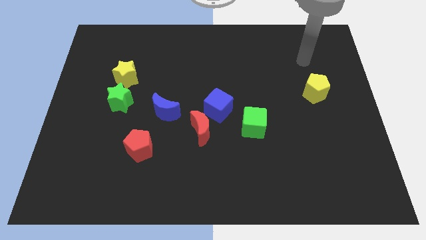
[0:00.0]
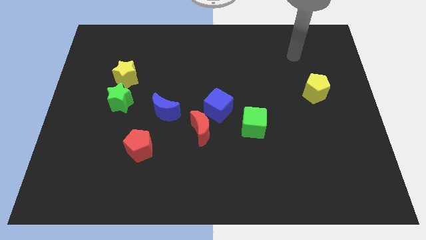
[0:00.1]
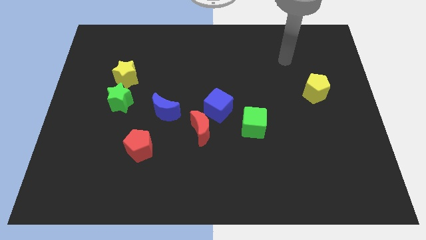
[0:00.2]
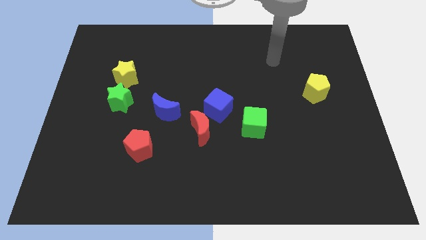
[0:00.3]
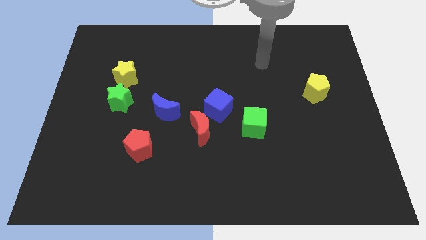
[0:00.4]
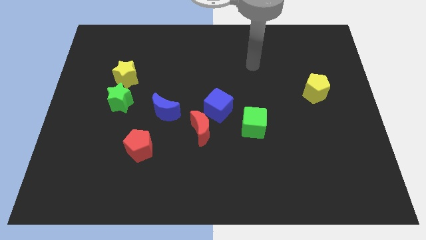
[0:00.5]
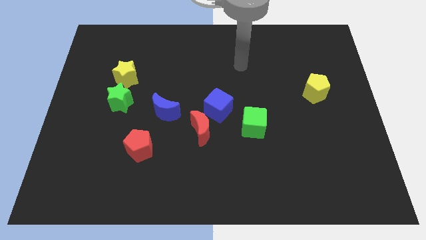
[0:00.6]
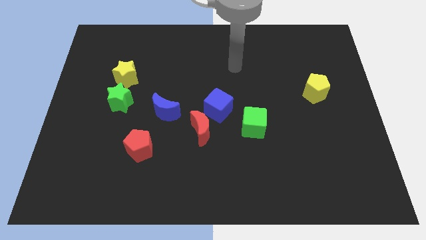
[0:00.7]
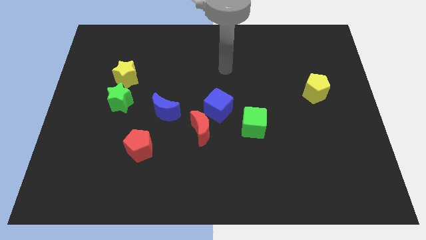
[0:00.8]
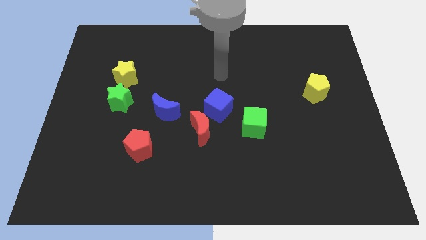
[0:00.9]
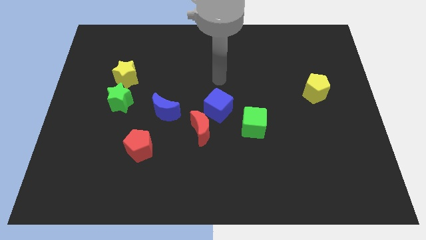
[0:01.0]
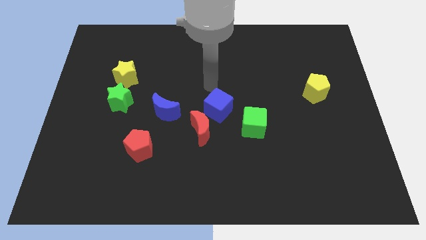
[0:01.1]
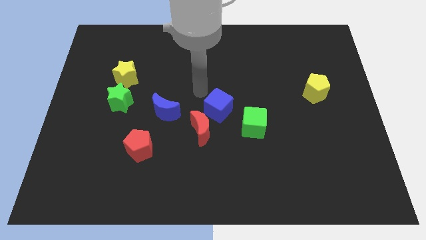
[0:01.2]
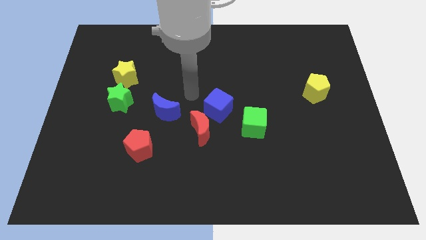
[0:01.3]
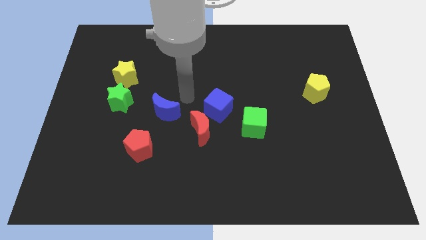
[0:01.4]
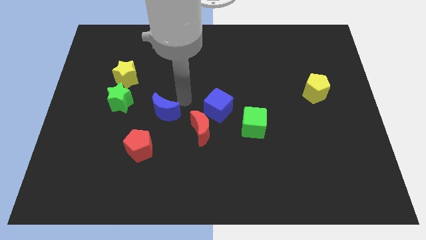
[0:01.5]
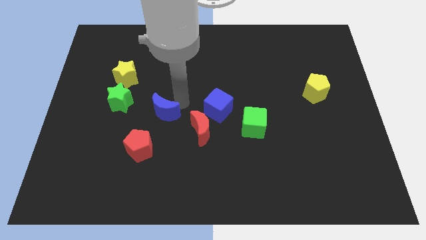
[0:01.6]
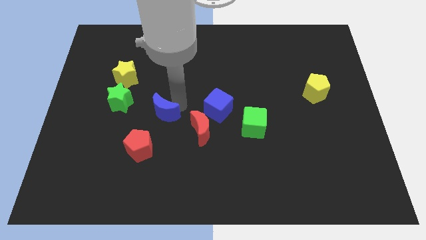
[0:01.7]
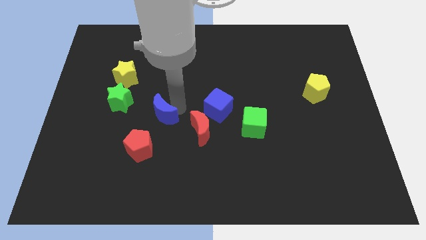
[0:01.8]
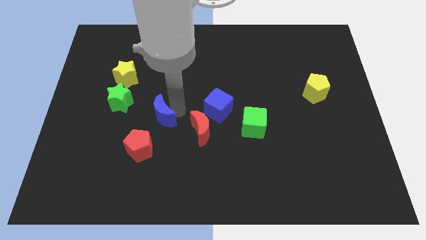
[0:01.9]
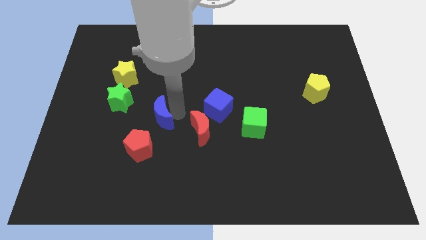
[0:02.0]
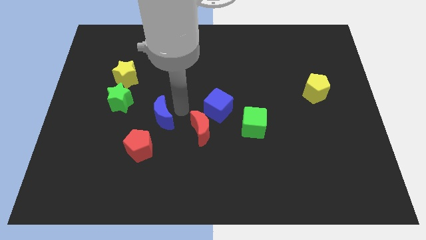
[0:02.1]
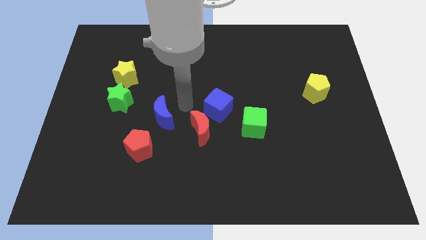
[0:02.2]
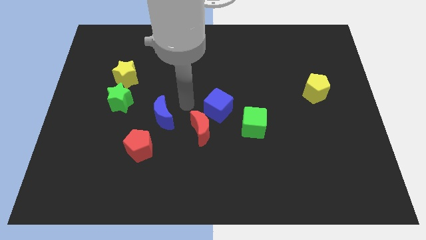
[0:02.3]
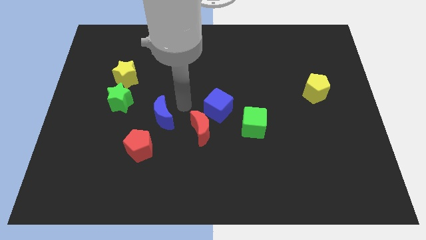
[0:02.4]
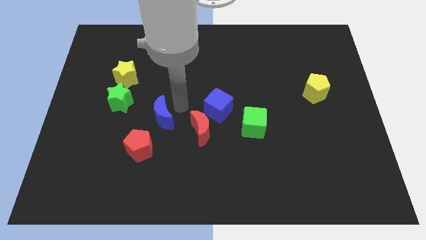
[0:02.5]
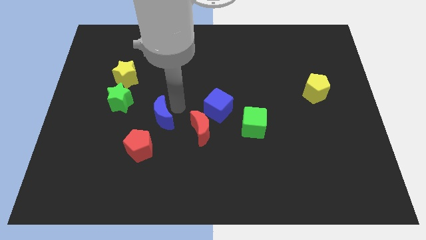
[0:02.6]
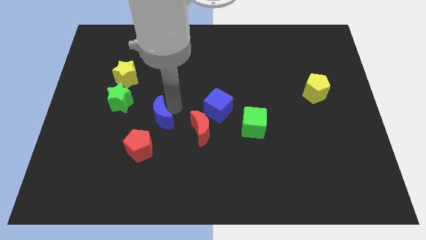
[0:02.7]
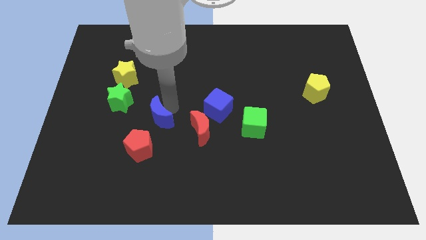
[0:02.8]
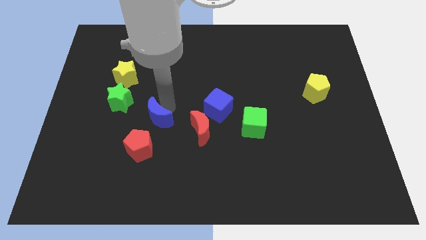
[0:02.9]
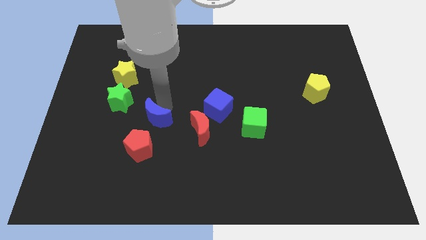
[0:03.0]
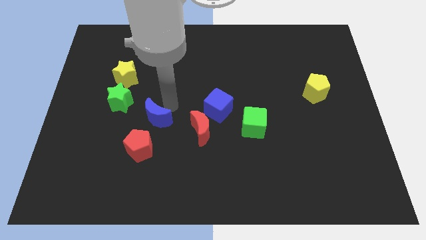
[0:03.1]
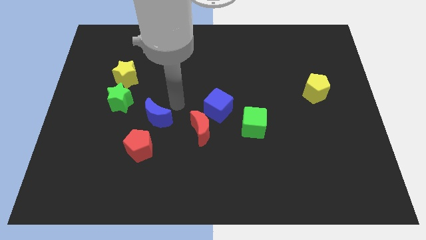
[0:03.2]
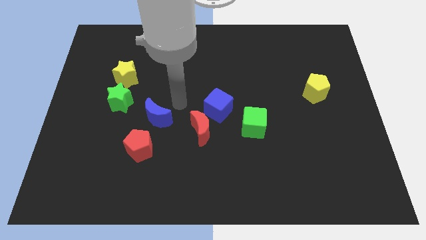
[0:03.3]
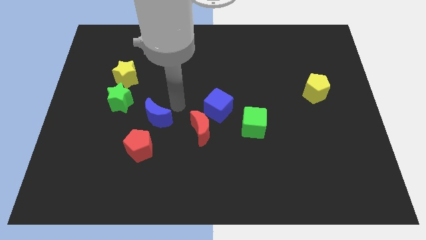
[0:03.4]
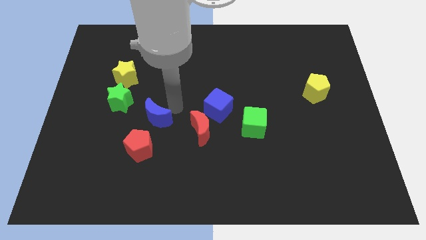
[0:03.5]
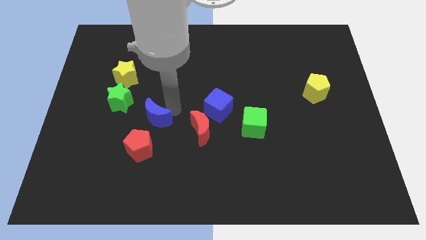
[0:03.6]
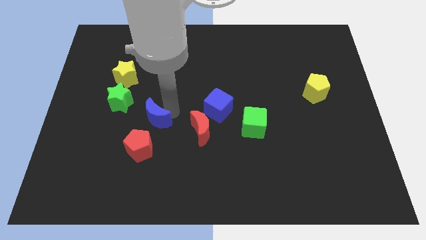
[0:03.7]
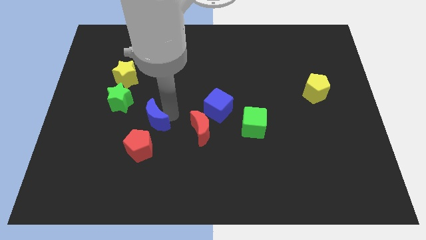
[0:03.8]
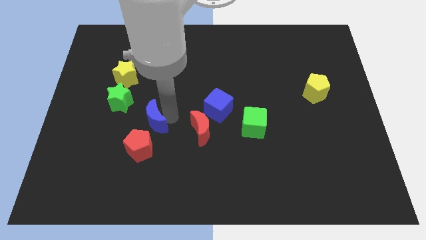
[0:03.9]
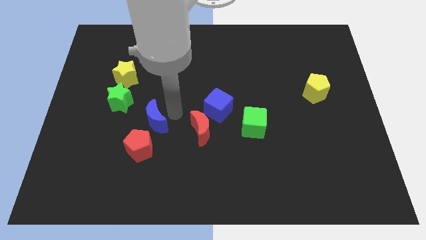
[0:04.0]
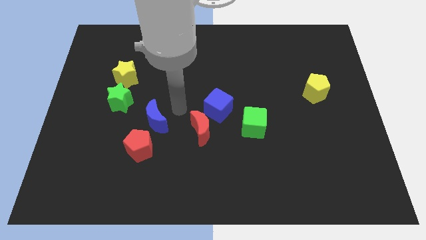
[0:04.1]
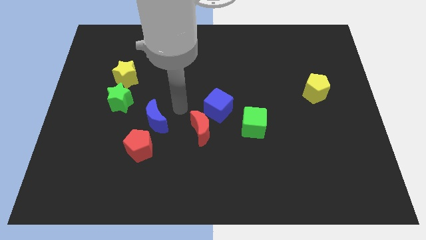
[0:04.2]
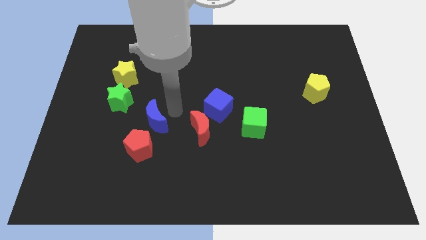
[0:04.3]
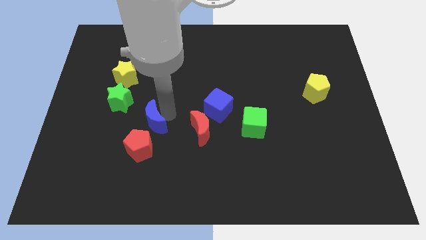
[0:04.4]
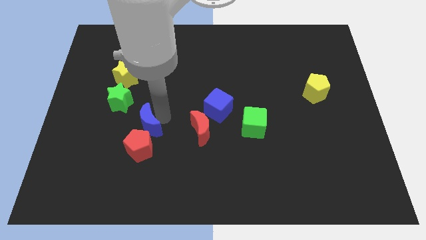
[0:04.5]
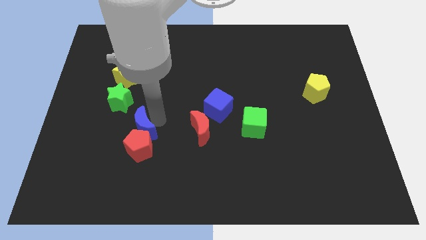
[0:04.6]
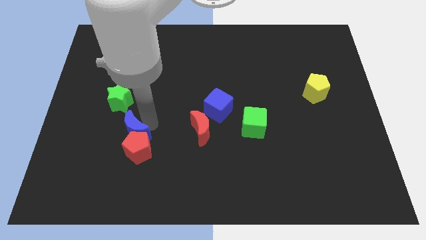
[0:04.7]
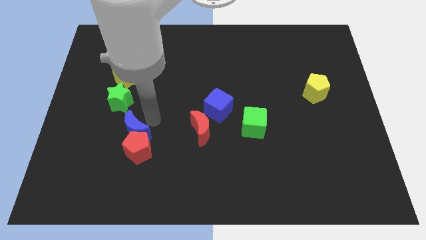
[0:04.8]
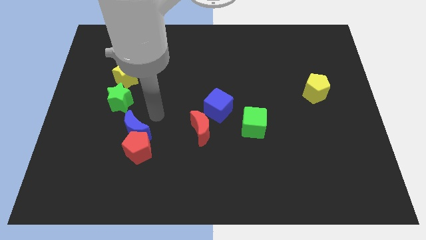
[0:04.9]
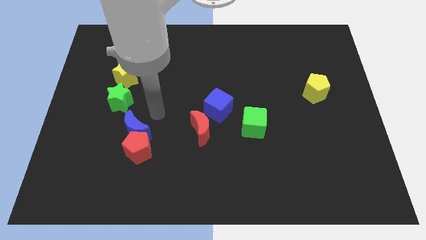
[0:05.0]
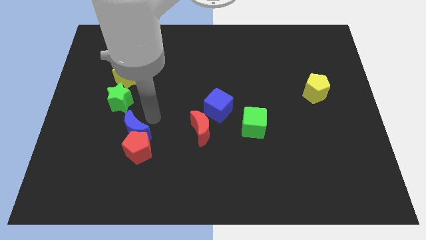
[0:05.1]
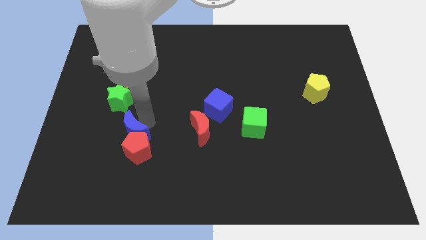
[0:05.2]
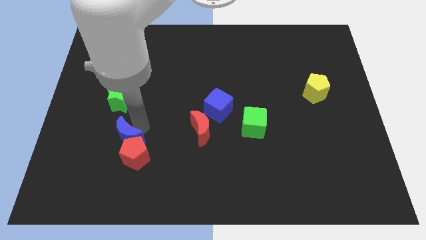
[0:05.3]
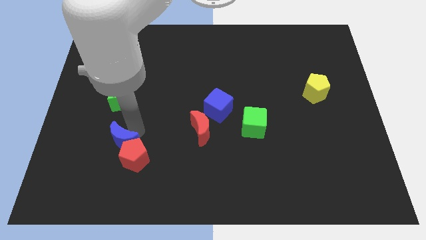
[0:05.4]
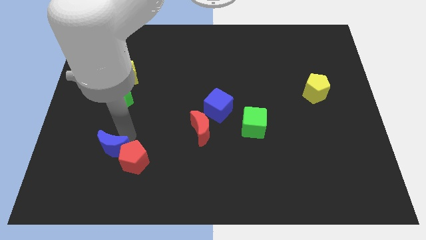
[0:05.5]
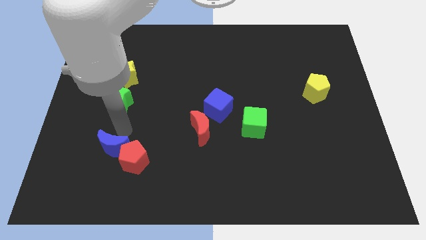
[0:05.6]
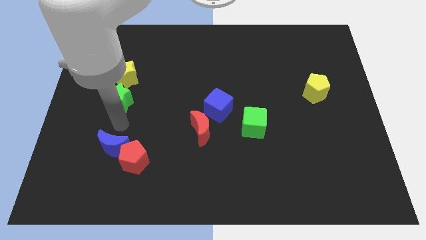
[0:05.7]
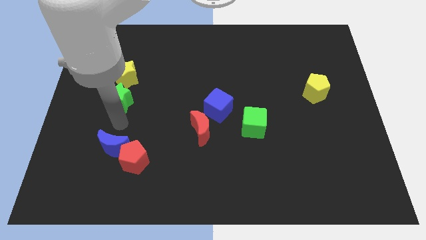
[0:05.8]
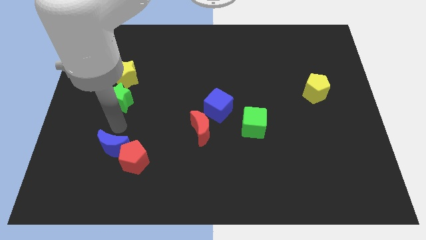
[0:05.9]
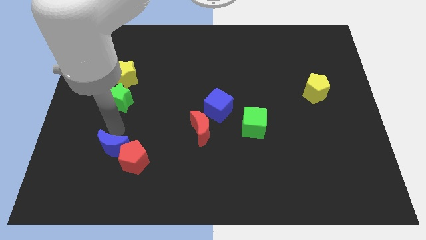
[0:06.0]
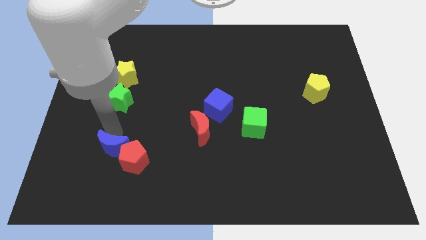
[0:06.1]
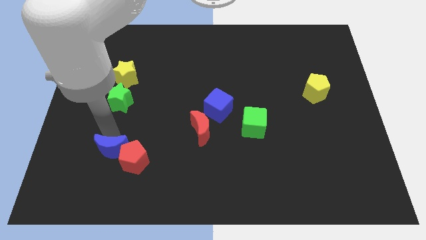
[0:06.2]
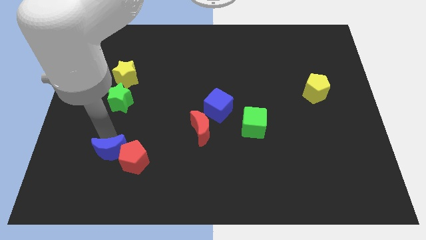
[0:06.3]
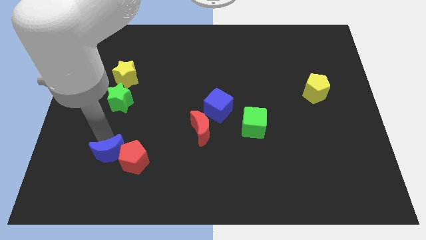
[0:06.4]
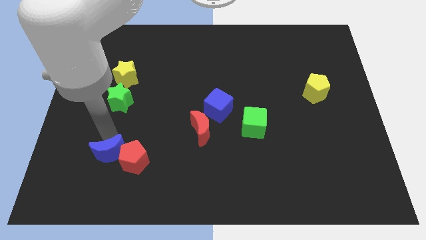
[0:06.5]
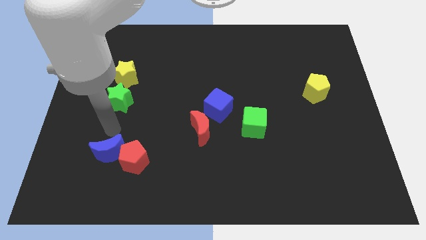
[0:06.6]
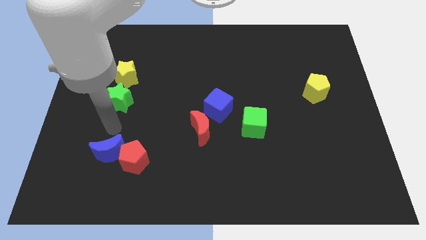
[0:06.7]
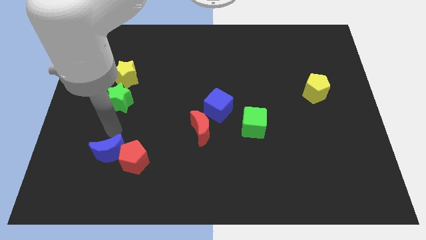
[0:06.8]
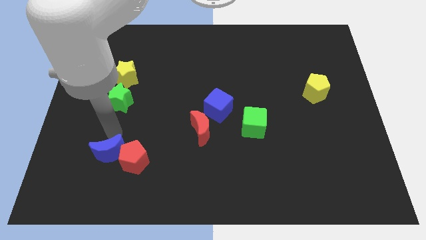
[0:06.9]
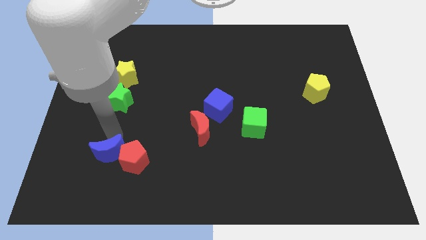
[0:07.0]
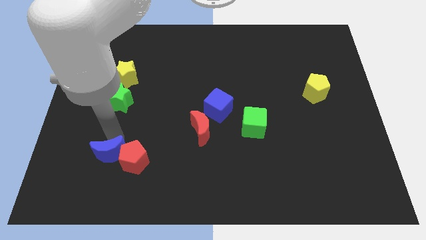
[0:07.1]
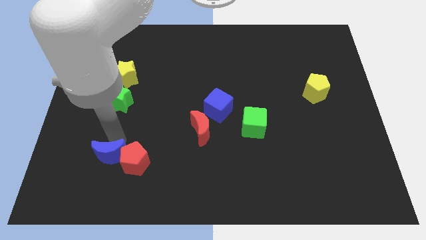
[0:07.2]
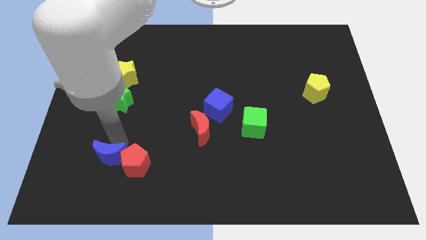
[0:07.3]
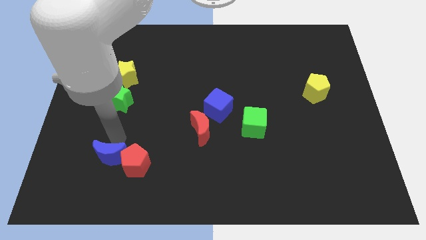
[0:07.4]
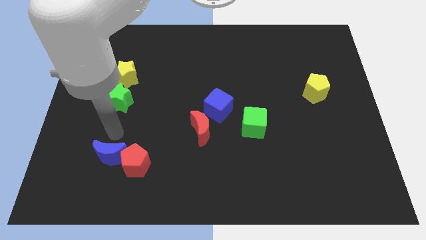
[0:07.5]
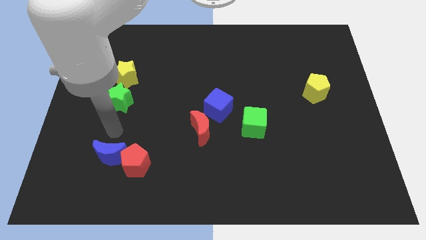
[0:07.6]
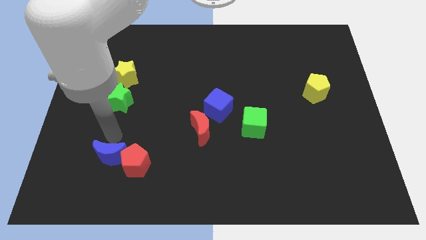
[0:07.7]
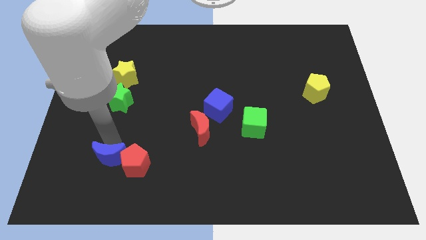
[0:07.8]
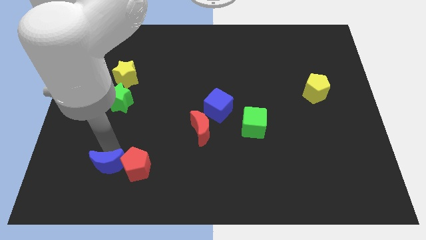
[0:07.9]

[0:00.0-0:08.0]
move the blue moon to the bottom left of the red pentagon
